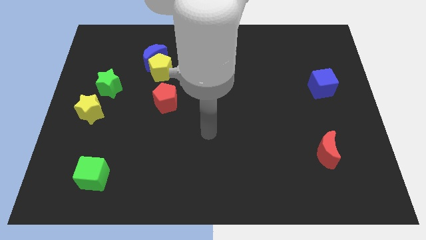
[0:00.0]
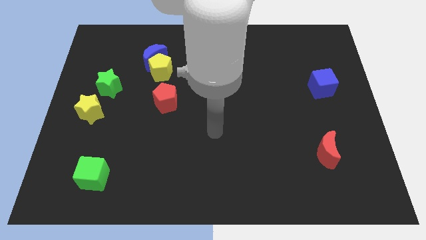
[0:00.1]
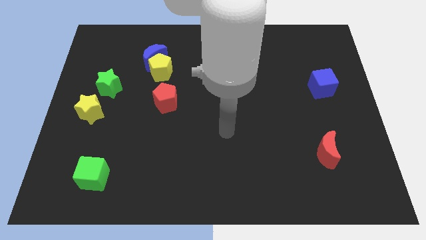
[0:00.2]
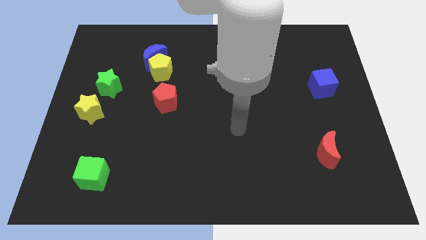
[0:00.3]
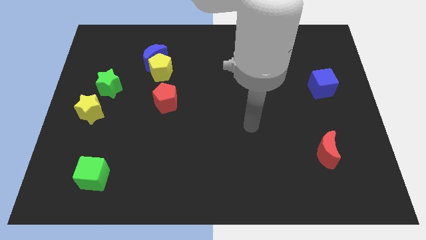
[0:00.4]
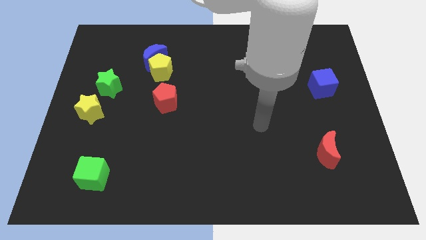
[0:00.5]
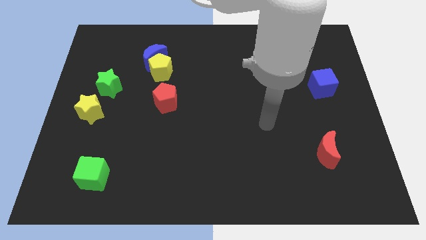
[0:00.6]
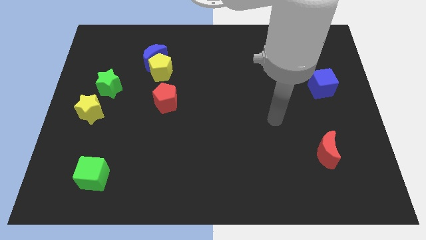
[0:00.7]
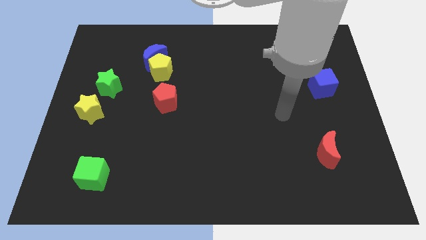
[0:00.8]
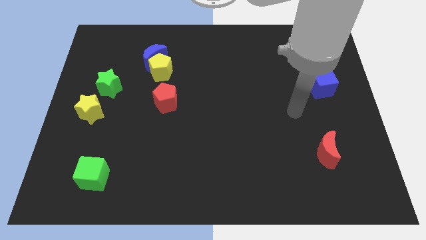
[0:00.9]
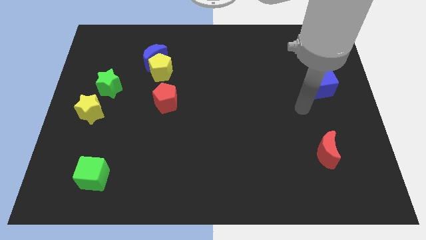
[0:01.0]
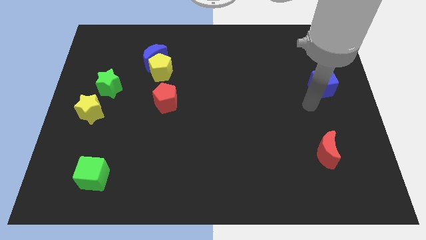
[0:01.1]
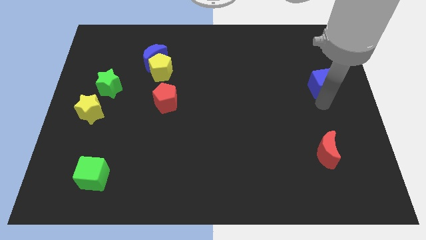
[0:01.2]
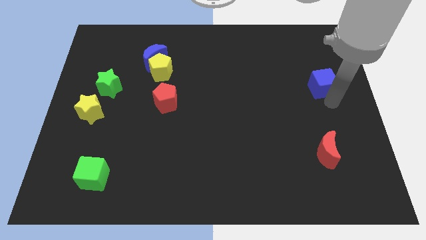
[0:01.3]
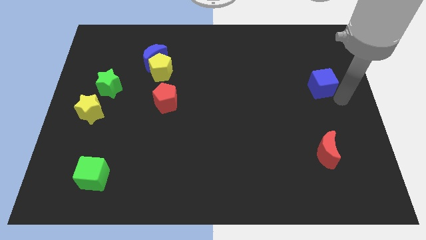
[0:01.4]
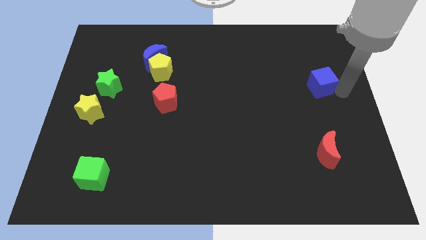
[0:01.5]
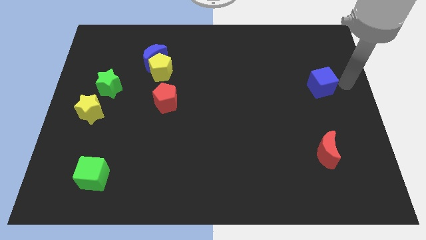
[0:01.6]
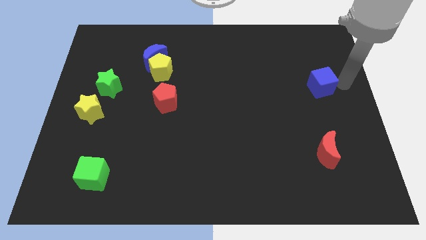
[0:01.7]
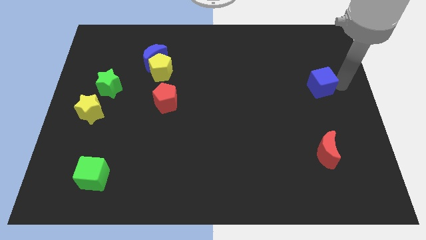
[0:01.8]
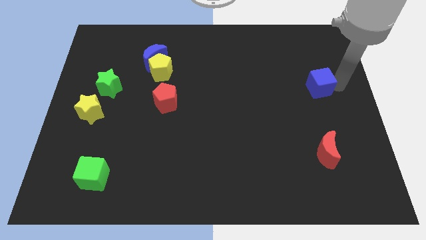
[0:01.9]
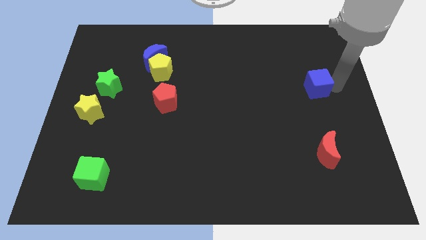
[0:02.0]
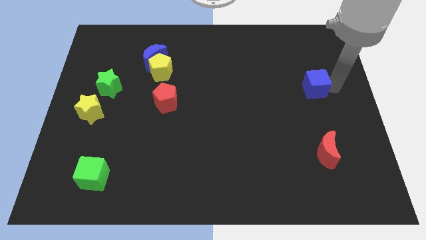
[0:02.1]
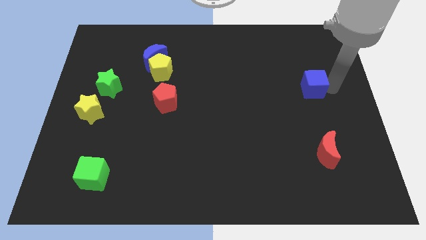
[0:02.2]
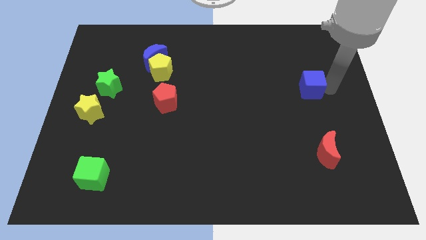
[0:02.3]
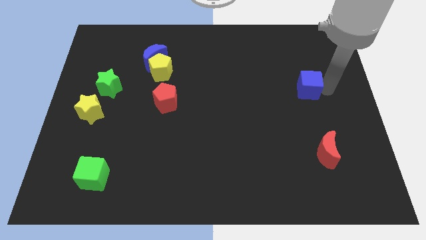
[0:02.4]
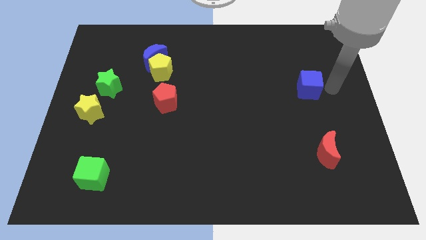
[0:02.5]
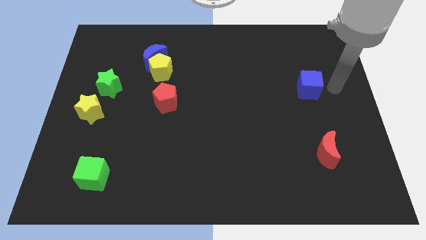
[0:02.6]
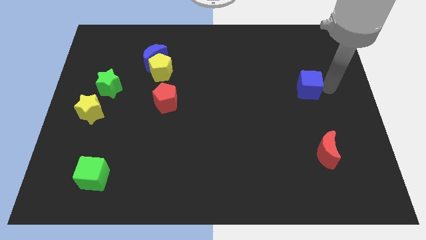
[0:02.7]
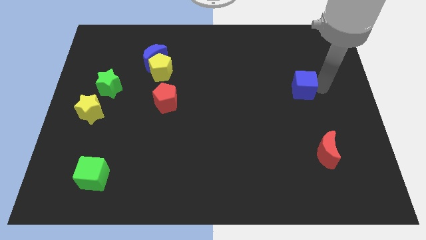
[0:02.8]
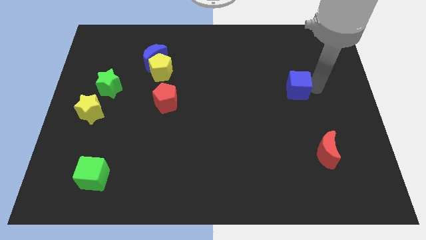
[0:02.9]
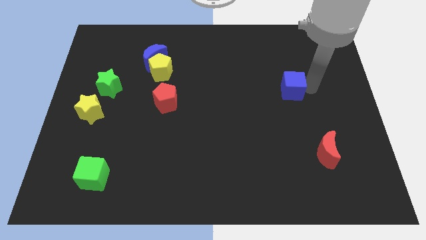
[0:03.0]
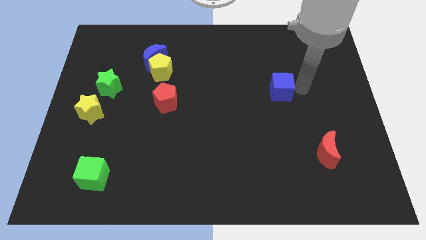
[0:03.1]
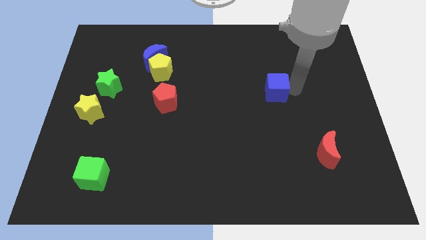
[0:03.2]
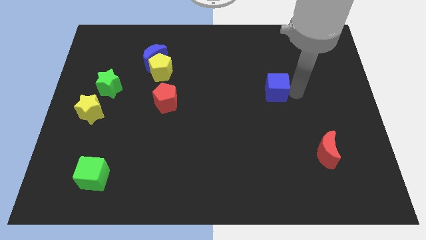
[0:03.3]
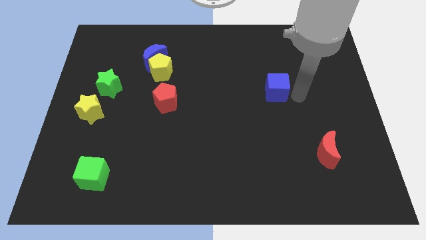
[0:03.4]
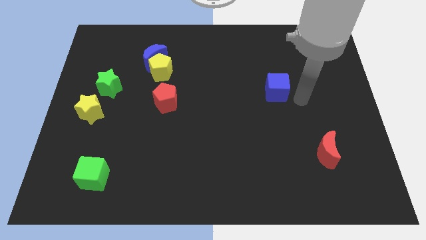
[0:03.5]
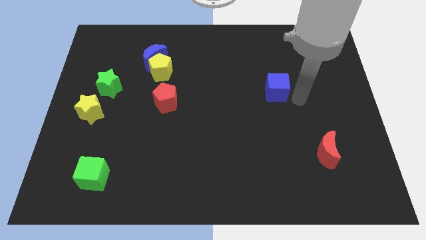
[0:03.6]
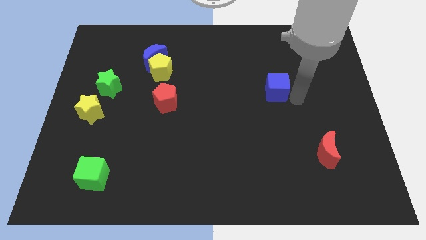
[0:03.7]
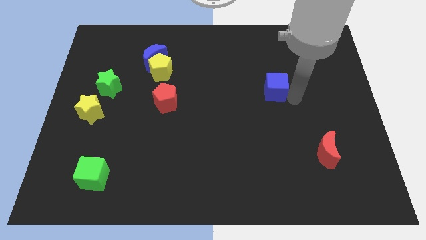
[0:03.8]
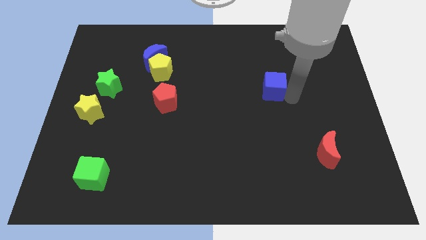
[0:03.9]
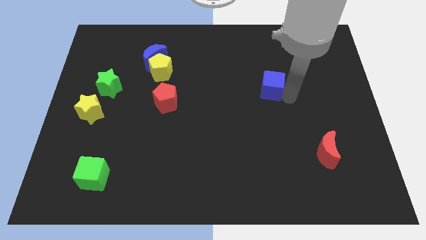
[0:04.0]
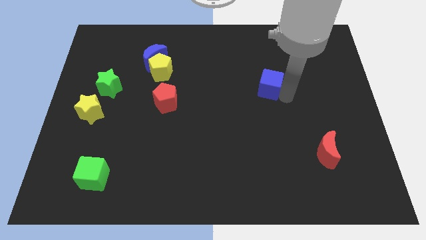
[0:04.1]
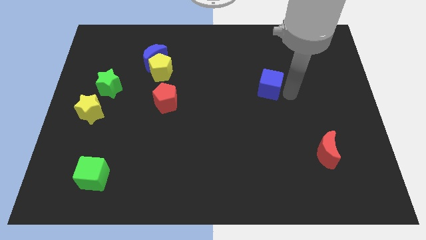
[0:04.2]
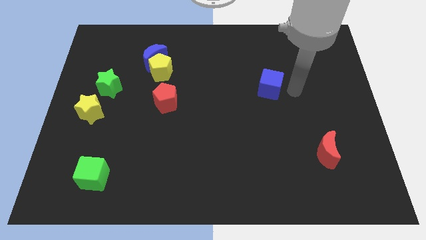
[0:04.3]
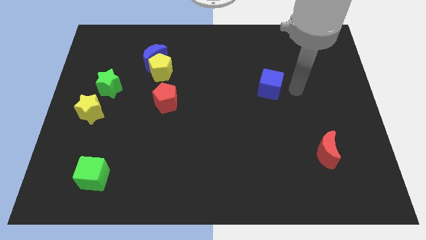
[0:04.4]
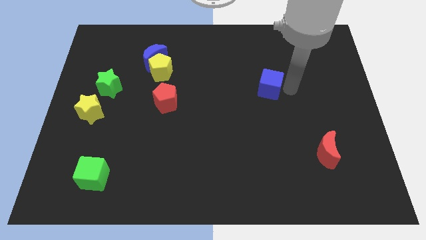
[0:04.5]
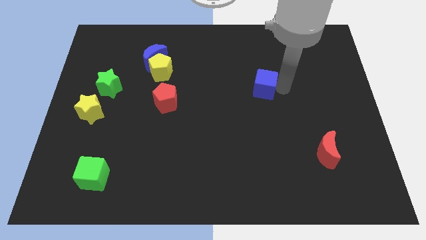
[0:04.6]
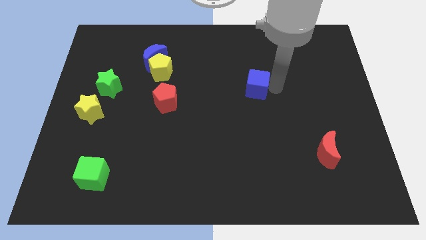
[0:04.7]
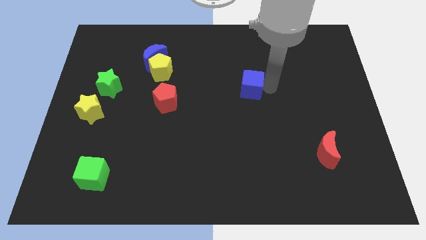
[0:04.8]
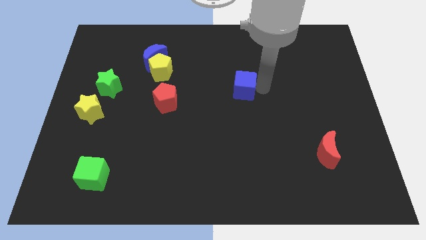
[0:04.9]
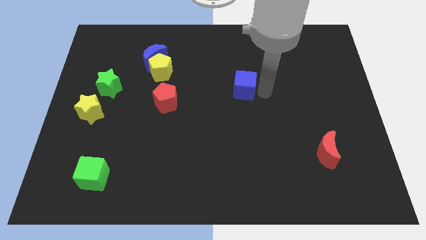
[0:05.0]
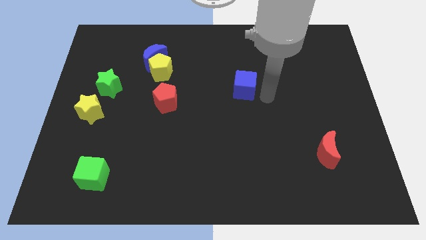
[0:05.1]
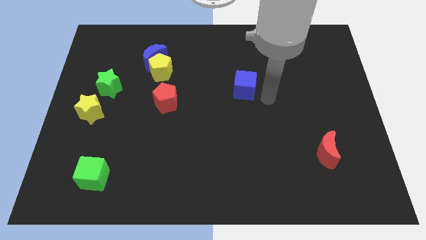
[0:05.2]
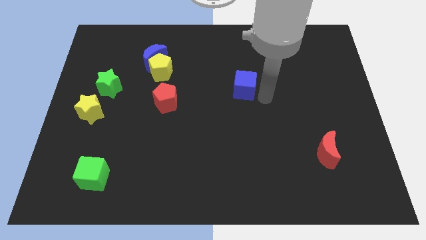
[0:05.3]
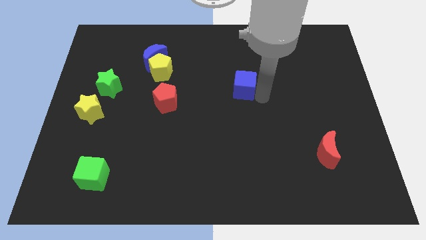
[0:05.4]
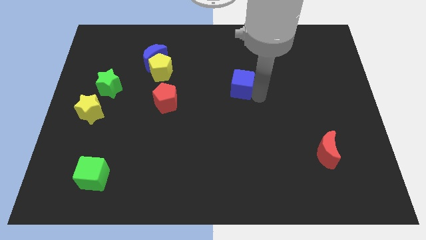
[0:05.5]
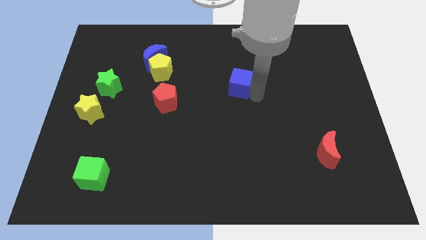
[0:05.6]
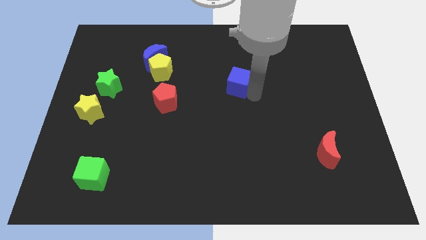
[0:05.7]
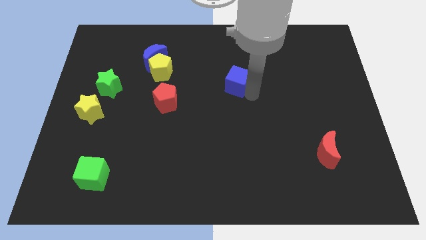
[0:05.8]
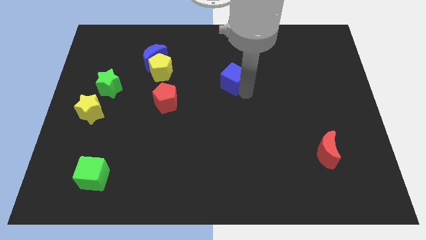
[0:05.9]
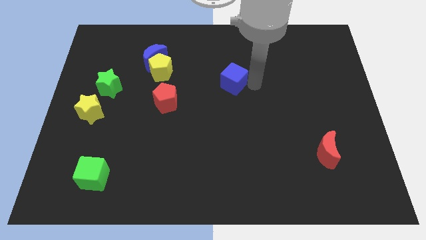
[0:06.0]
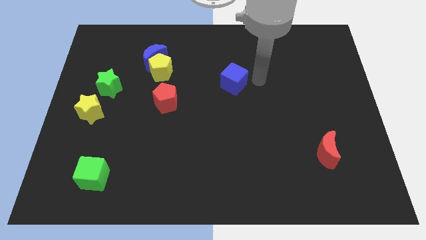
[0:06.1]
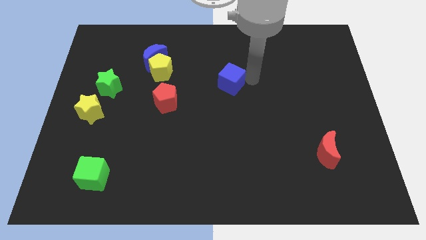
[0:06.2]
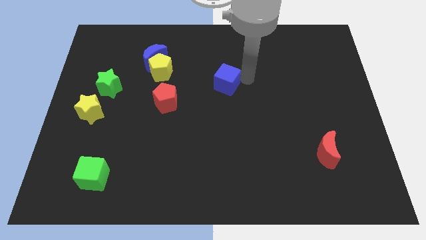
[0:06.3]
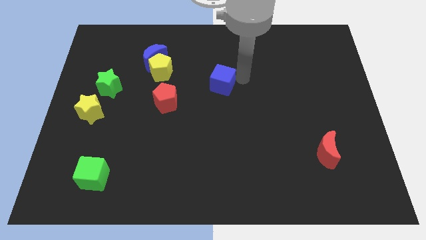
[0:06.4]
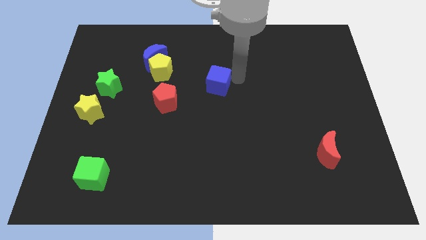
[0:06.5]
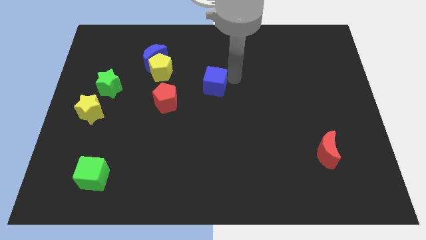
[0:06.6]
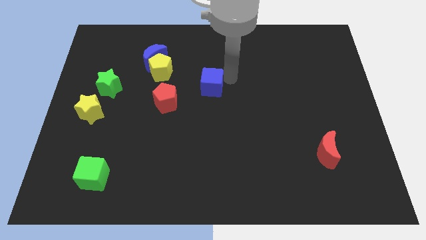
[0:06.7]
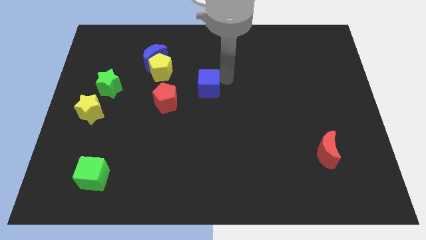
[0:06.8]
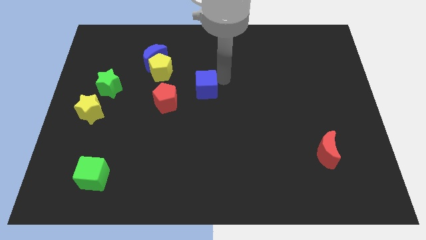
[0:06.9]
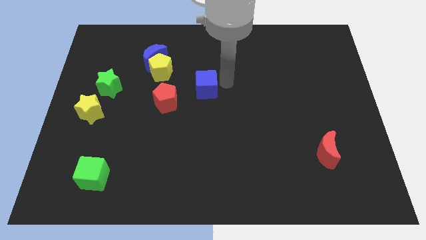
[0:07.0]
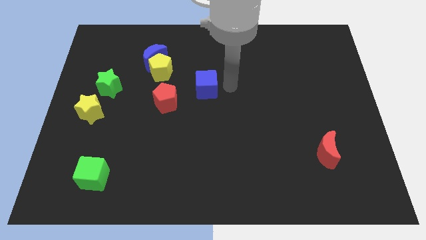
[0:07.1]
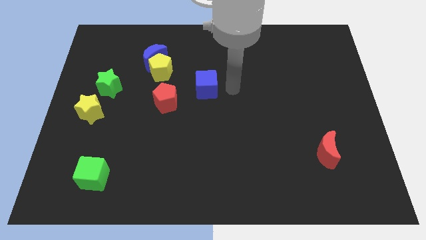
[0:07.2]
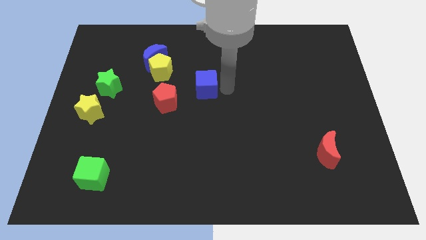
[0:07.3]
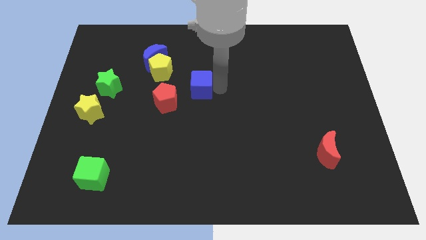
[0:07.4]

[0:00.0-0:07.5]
push the blue cube to the bottom right of the yellow pentagon
